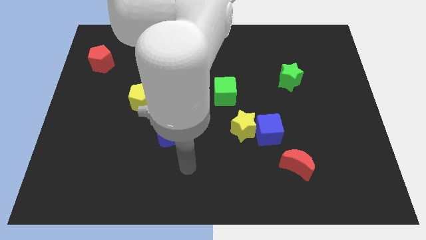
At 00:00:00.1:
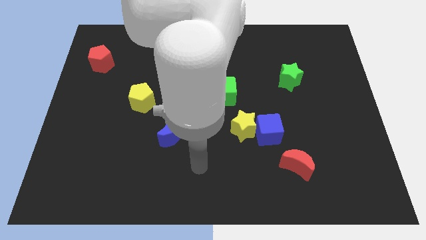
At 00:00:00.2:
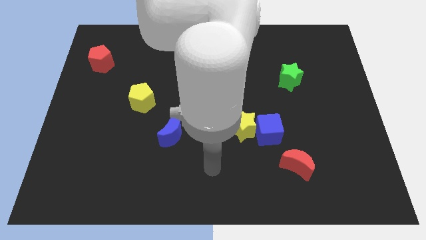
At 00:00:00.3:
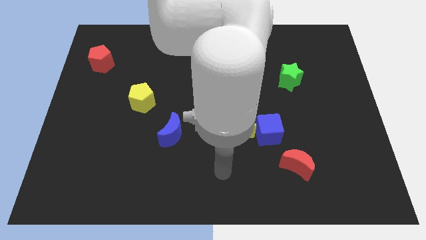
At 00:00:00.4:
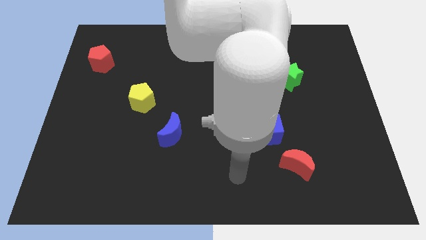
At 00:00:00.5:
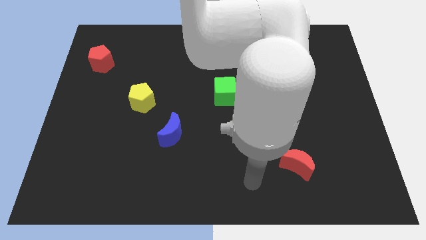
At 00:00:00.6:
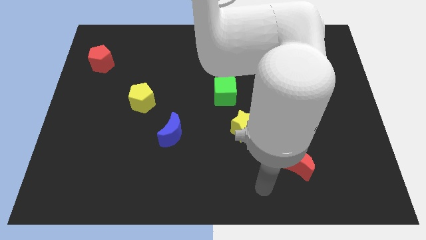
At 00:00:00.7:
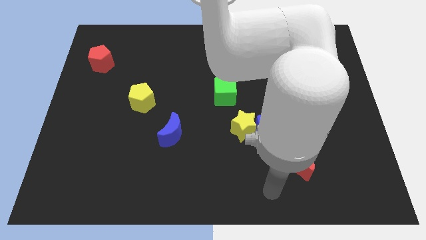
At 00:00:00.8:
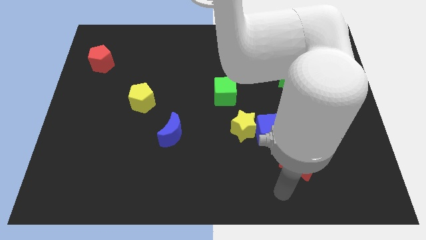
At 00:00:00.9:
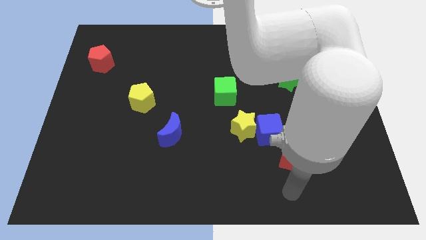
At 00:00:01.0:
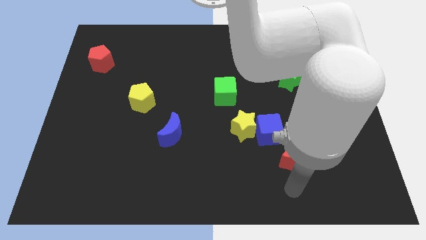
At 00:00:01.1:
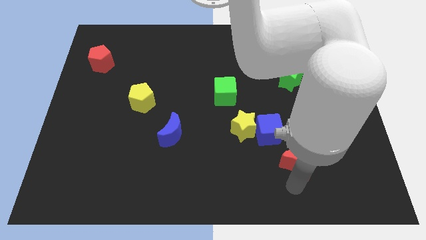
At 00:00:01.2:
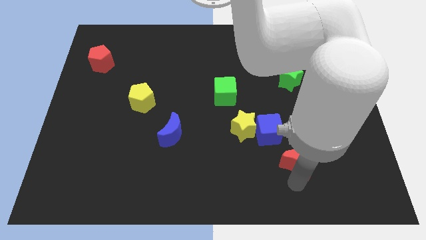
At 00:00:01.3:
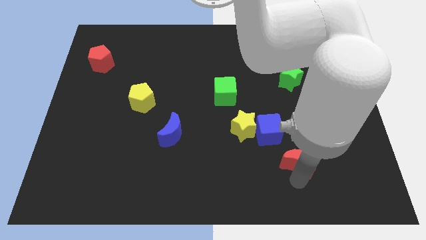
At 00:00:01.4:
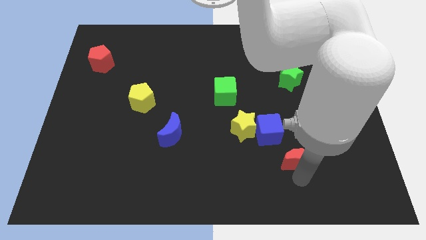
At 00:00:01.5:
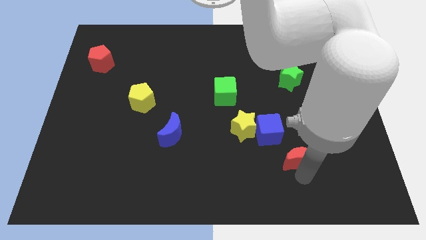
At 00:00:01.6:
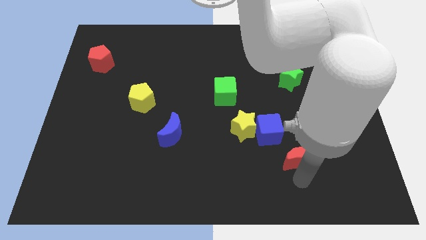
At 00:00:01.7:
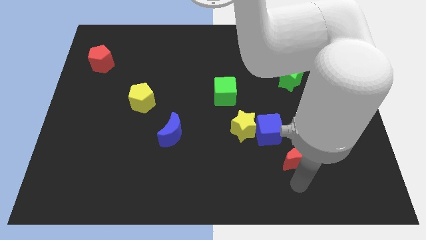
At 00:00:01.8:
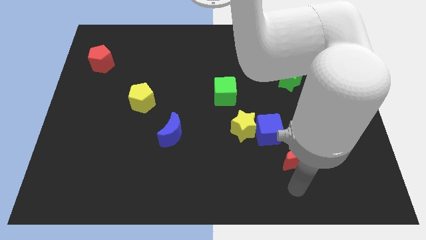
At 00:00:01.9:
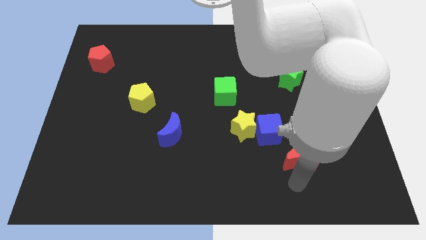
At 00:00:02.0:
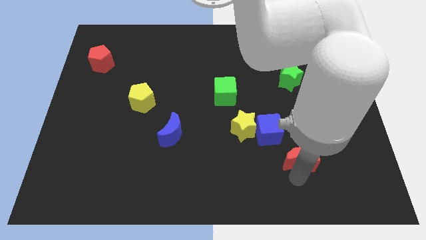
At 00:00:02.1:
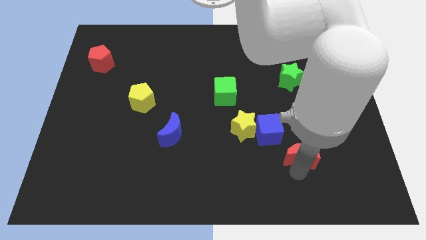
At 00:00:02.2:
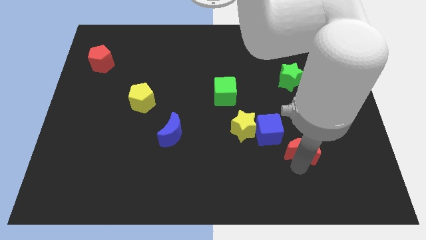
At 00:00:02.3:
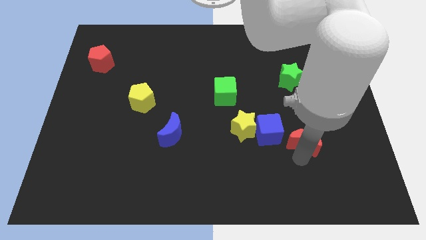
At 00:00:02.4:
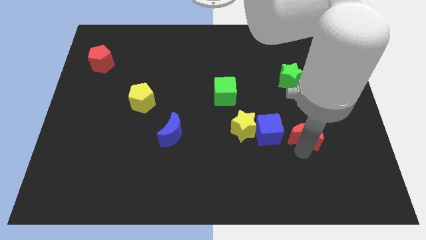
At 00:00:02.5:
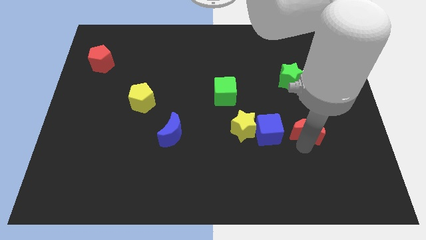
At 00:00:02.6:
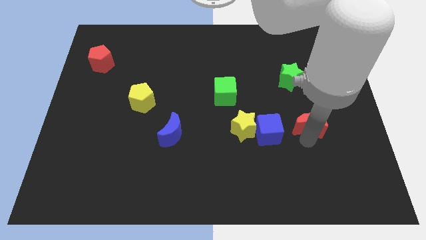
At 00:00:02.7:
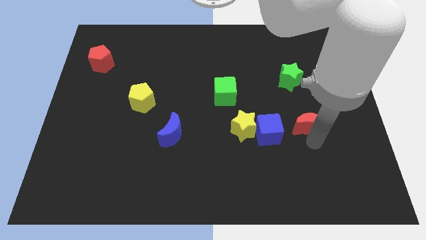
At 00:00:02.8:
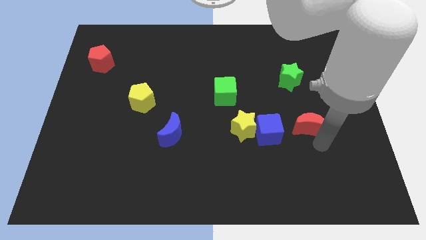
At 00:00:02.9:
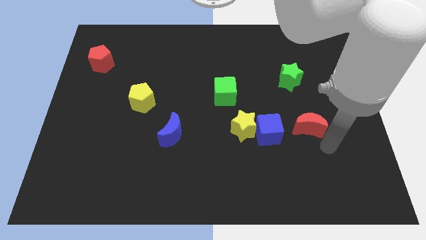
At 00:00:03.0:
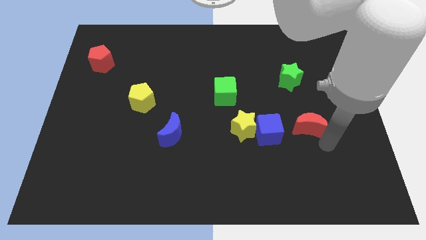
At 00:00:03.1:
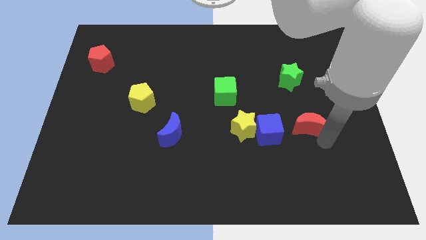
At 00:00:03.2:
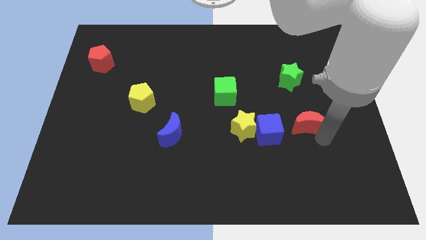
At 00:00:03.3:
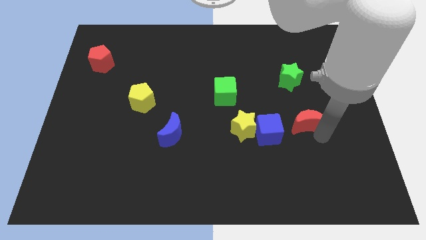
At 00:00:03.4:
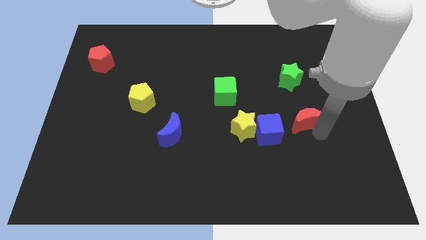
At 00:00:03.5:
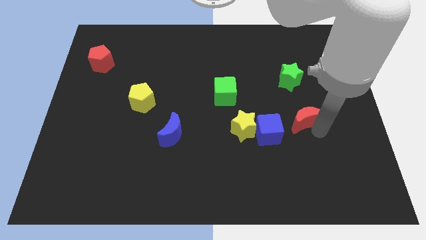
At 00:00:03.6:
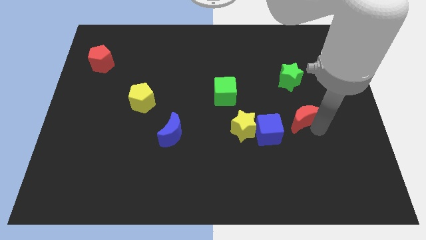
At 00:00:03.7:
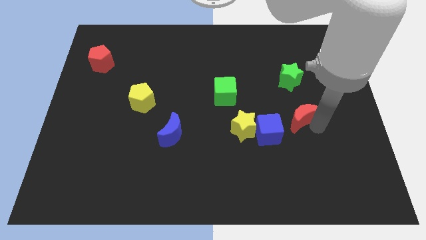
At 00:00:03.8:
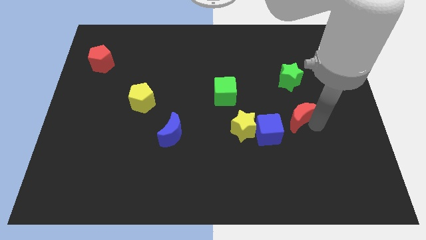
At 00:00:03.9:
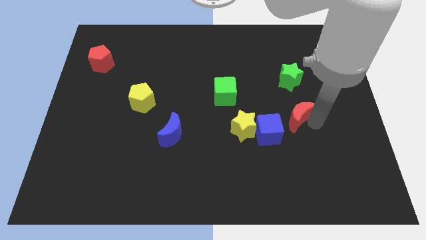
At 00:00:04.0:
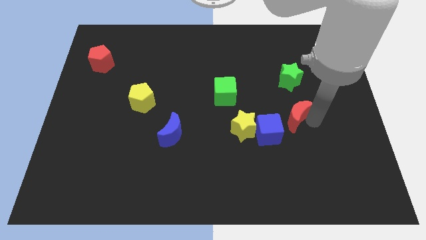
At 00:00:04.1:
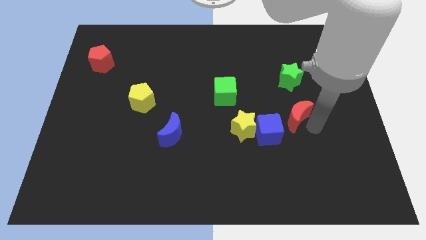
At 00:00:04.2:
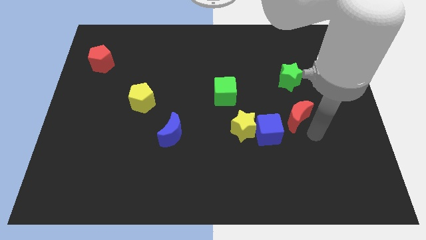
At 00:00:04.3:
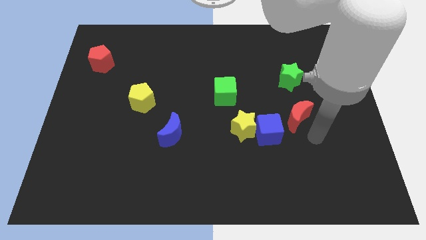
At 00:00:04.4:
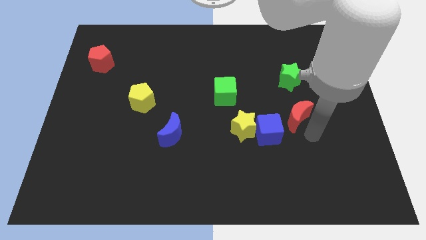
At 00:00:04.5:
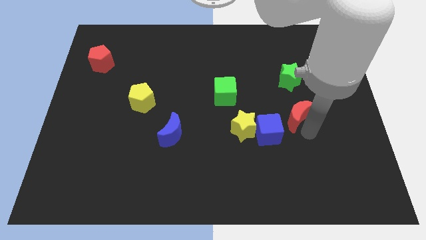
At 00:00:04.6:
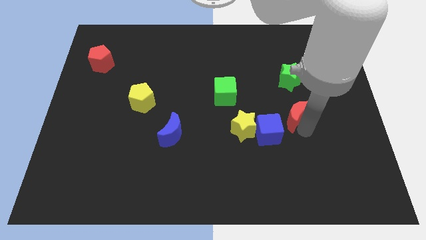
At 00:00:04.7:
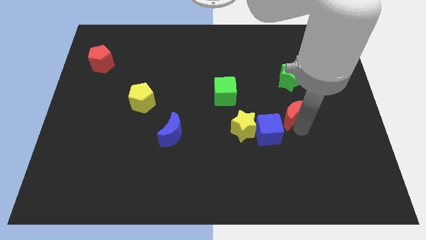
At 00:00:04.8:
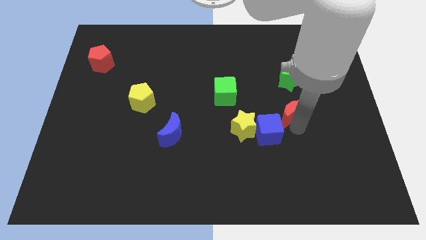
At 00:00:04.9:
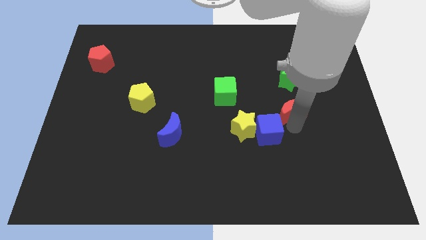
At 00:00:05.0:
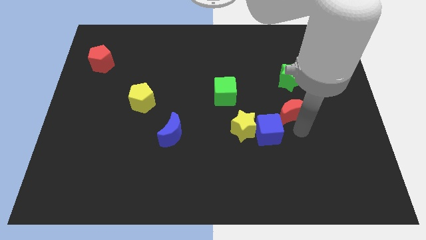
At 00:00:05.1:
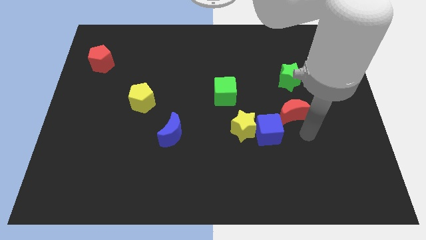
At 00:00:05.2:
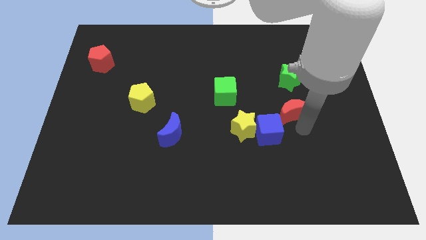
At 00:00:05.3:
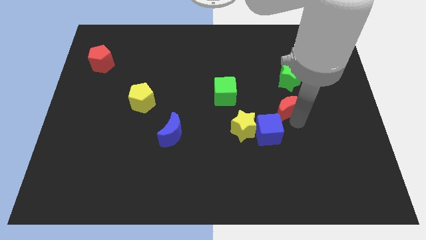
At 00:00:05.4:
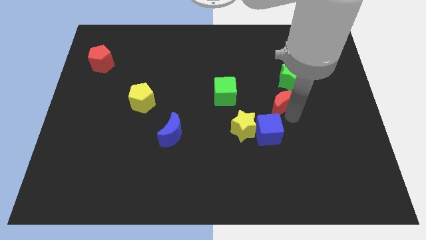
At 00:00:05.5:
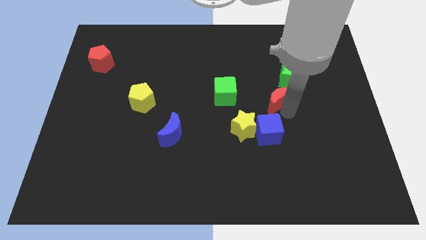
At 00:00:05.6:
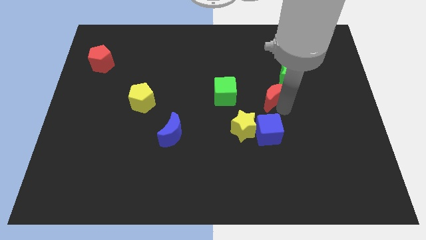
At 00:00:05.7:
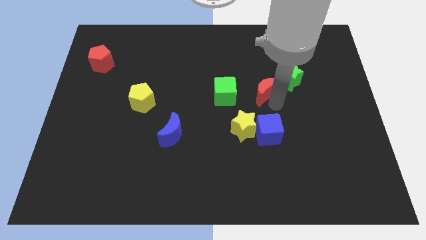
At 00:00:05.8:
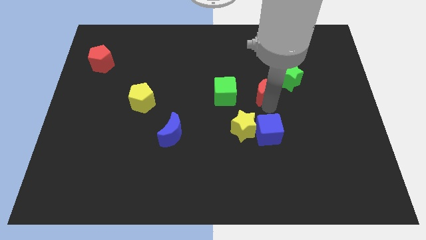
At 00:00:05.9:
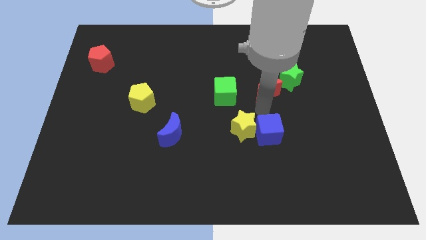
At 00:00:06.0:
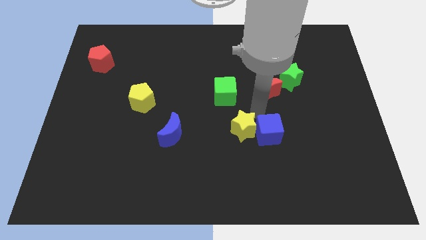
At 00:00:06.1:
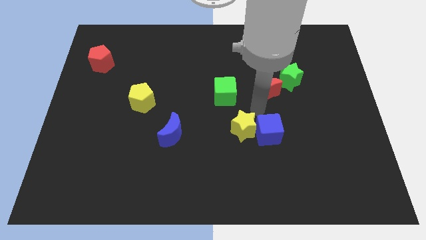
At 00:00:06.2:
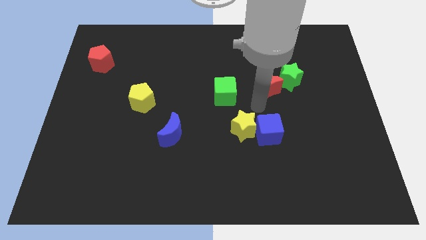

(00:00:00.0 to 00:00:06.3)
slide the red moon upwards

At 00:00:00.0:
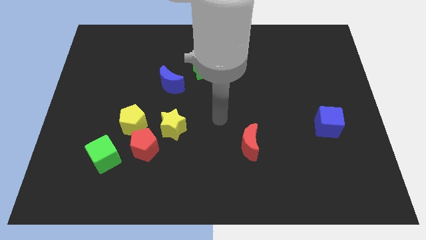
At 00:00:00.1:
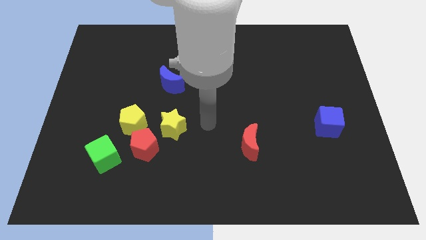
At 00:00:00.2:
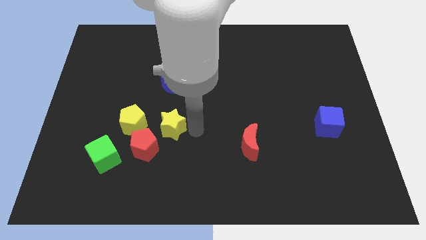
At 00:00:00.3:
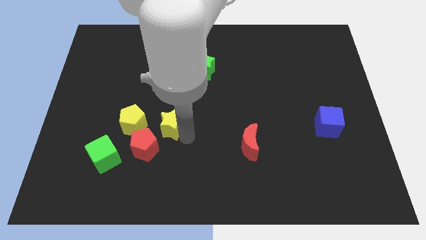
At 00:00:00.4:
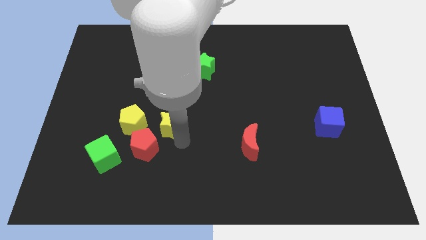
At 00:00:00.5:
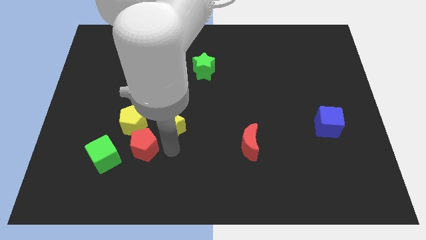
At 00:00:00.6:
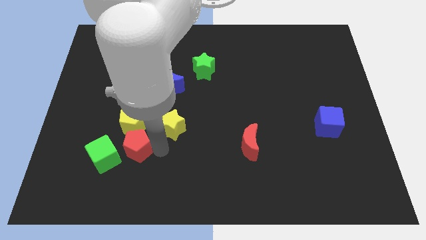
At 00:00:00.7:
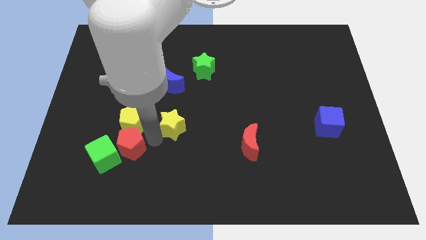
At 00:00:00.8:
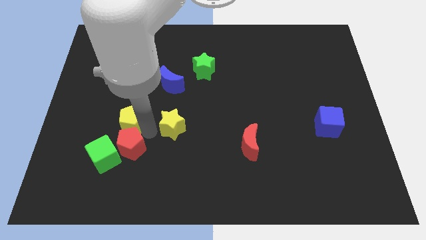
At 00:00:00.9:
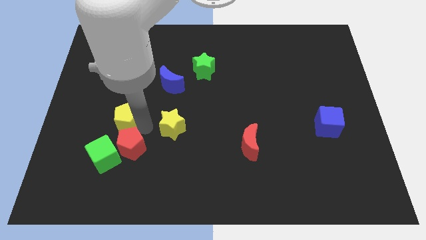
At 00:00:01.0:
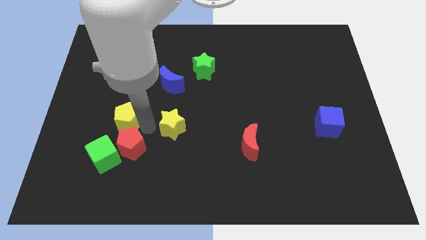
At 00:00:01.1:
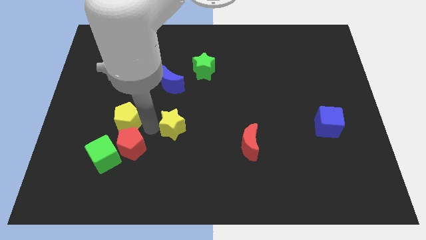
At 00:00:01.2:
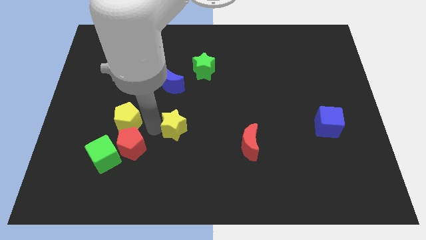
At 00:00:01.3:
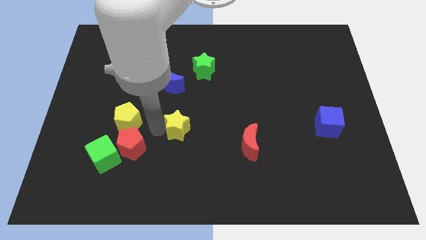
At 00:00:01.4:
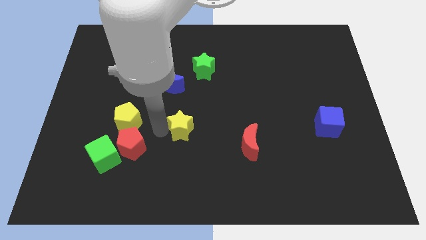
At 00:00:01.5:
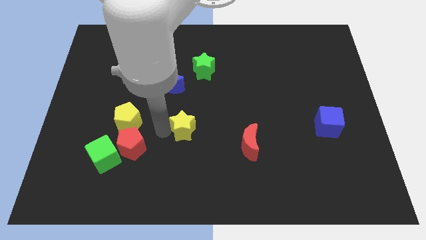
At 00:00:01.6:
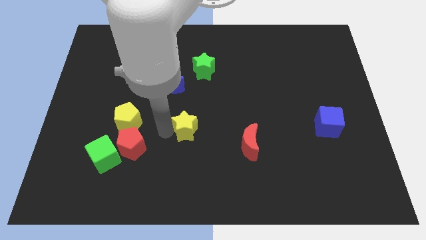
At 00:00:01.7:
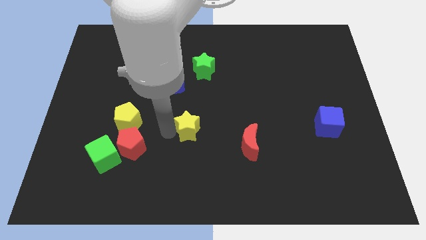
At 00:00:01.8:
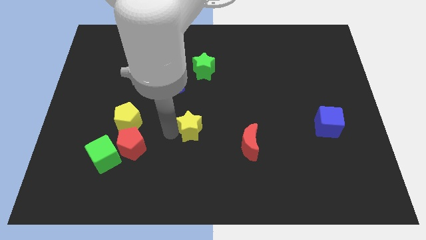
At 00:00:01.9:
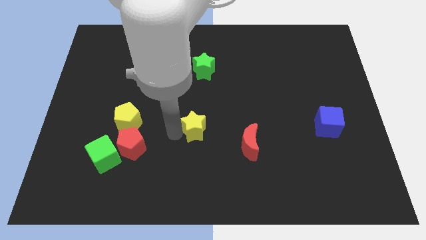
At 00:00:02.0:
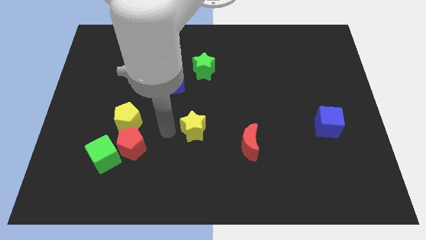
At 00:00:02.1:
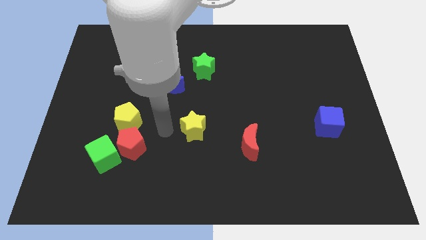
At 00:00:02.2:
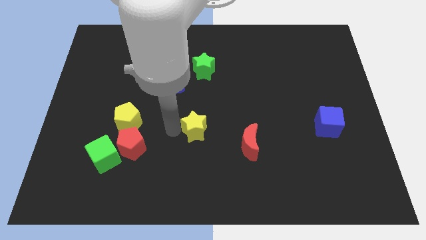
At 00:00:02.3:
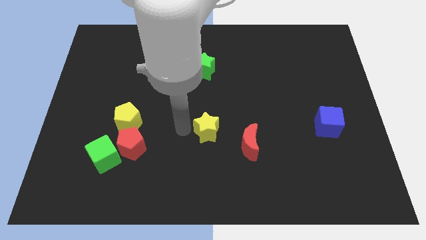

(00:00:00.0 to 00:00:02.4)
push the yellow star a little bit right
